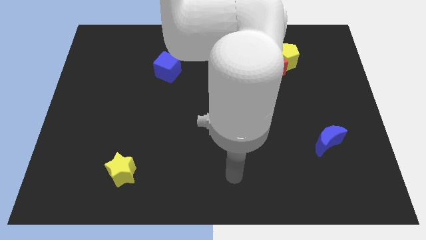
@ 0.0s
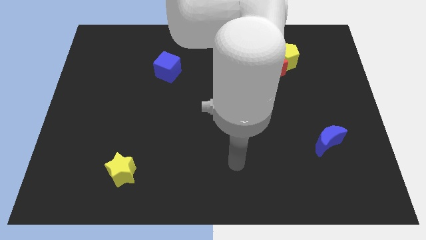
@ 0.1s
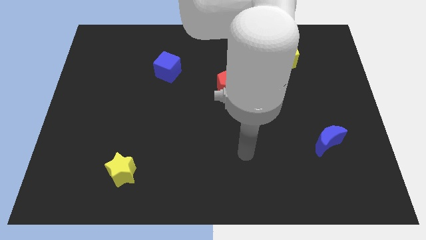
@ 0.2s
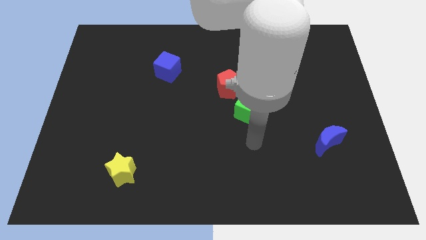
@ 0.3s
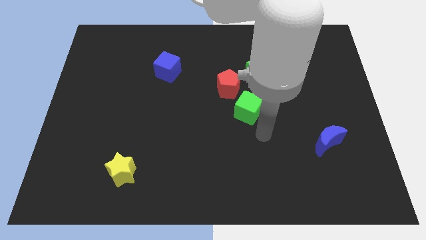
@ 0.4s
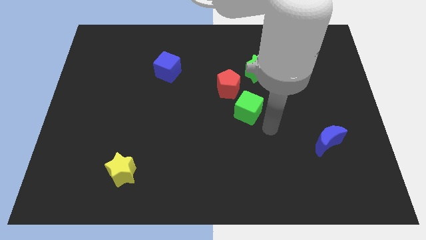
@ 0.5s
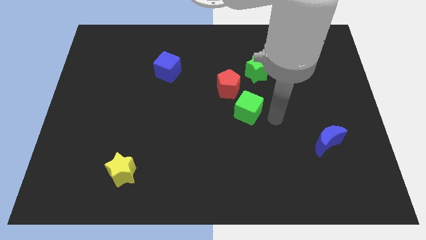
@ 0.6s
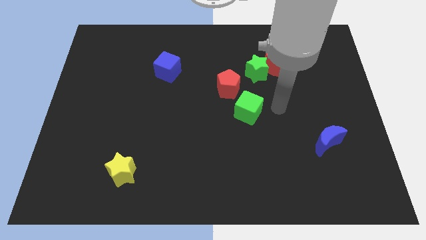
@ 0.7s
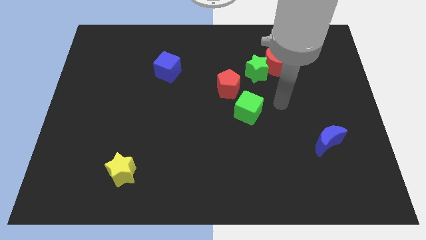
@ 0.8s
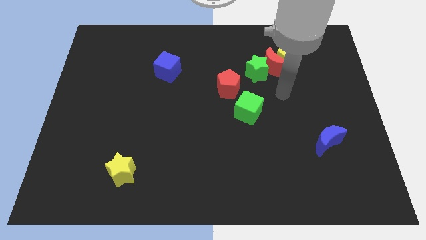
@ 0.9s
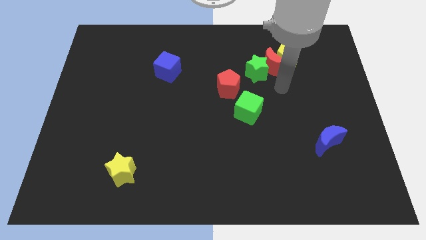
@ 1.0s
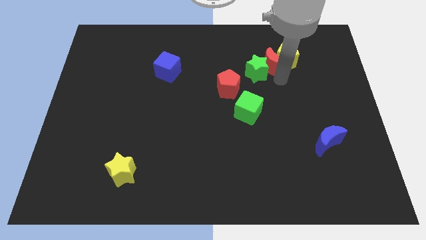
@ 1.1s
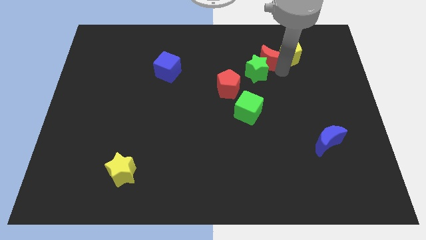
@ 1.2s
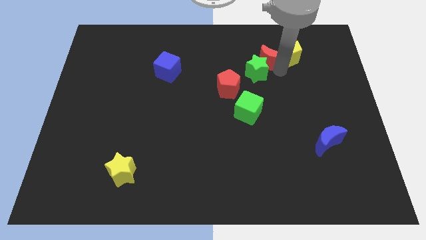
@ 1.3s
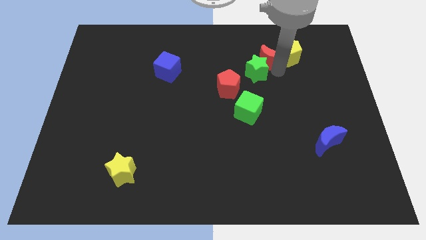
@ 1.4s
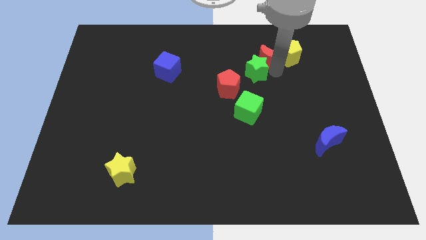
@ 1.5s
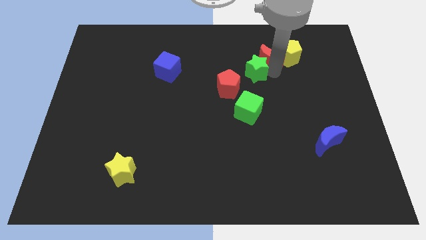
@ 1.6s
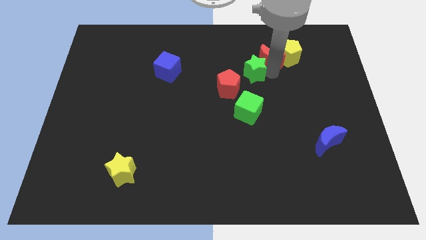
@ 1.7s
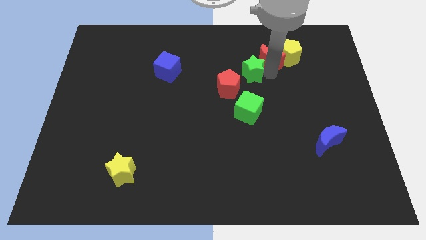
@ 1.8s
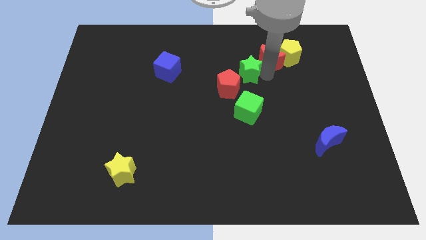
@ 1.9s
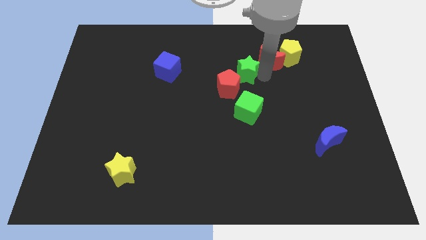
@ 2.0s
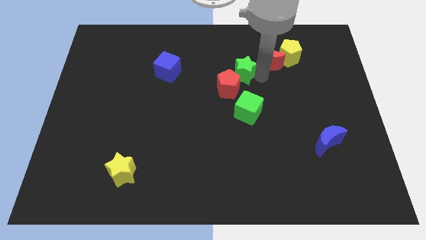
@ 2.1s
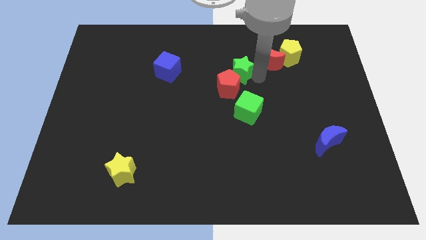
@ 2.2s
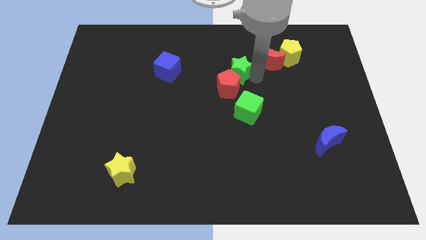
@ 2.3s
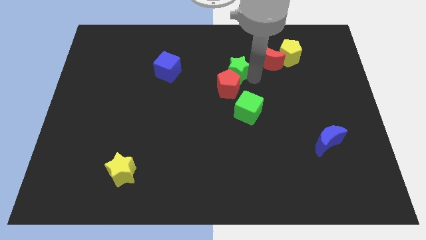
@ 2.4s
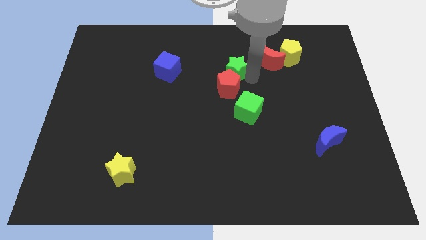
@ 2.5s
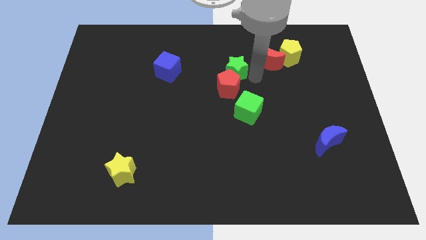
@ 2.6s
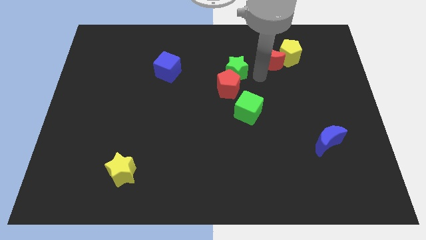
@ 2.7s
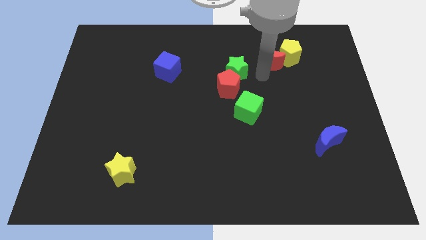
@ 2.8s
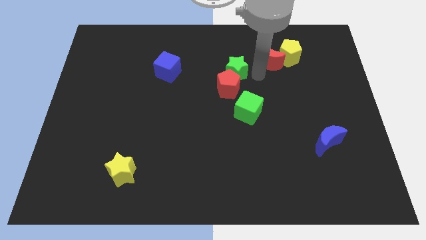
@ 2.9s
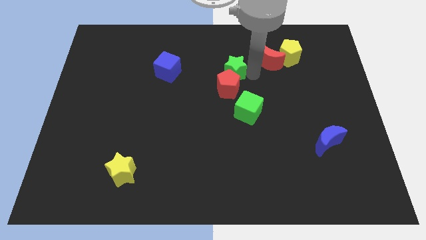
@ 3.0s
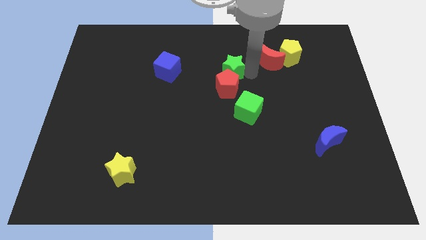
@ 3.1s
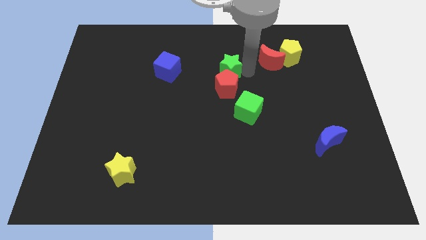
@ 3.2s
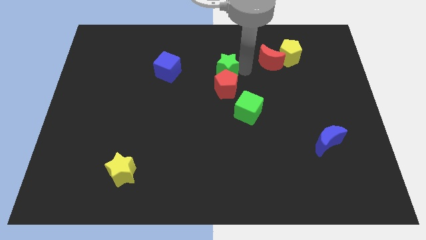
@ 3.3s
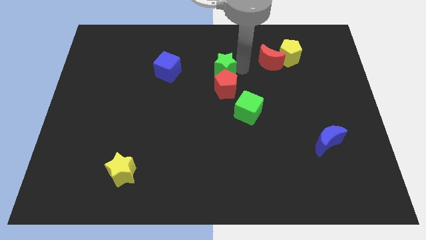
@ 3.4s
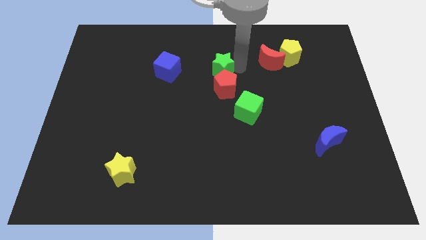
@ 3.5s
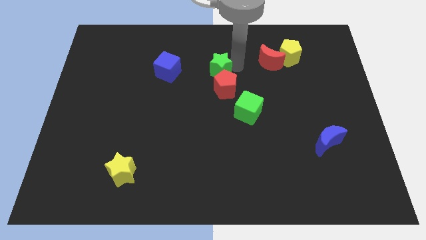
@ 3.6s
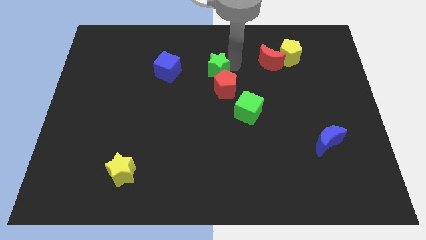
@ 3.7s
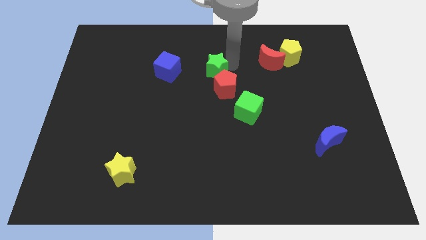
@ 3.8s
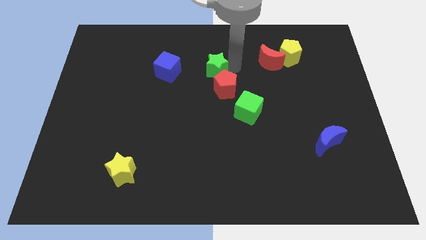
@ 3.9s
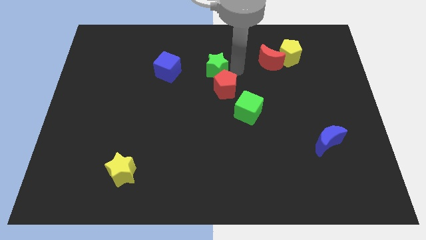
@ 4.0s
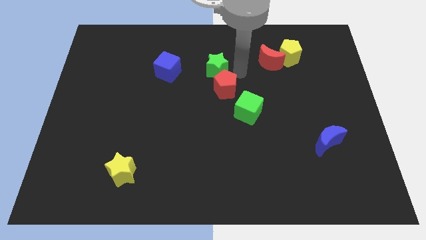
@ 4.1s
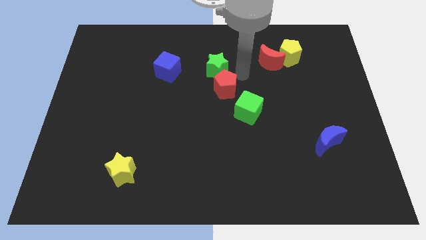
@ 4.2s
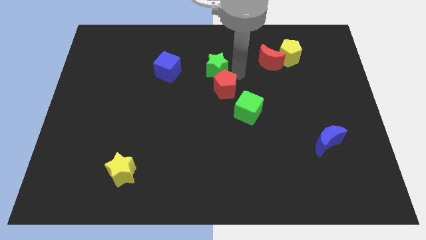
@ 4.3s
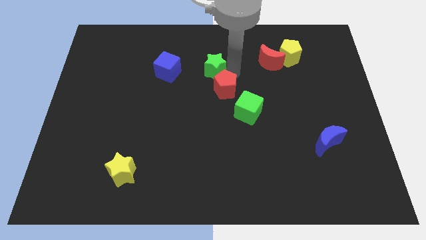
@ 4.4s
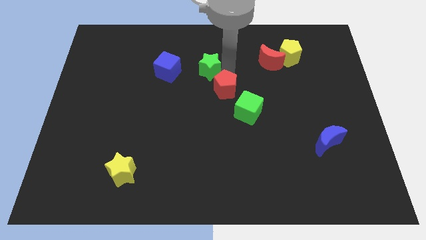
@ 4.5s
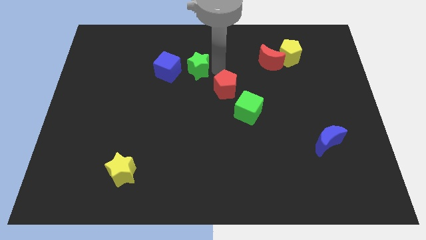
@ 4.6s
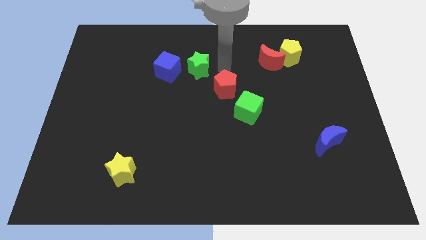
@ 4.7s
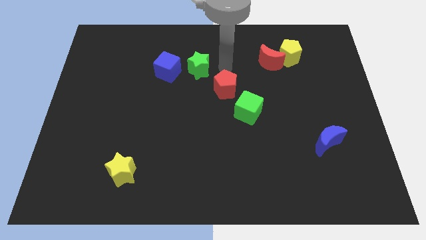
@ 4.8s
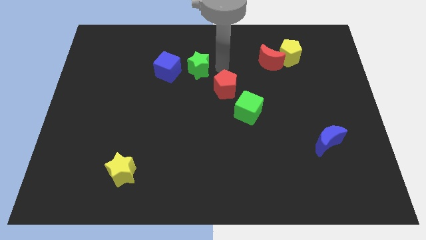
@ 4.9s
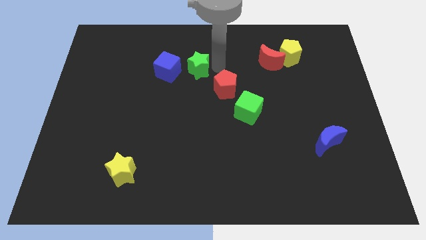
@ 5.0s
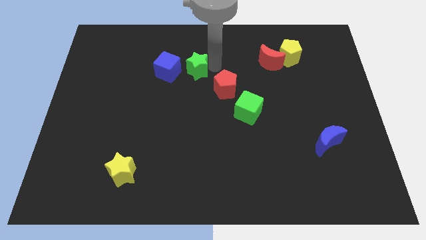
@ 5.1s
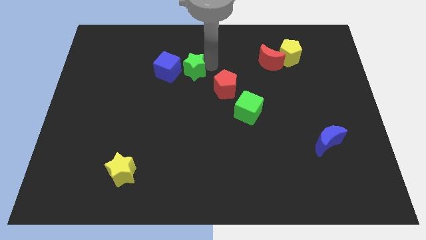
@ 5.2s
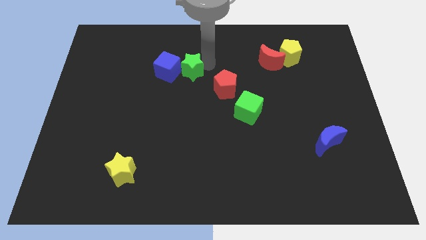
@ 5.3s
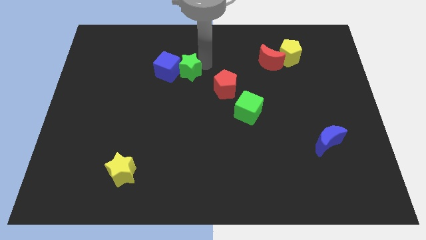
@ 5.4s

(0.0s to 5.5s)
push the green star next to the blue cube

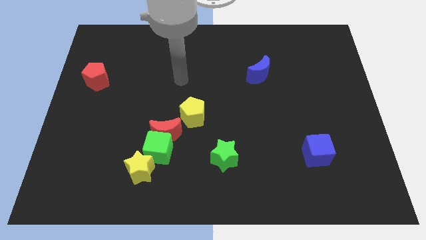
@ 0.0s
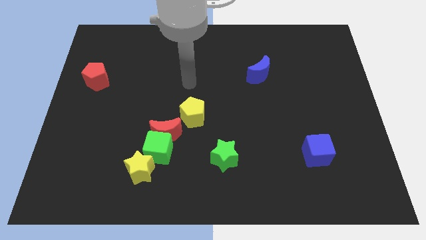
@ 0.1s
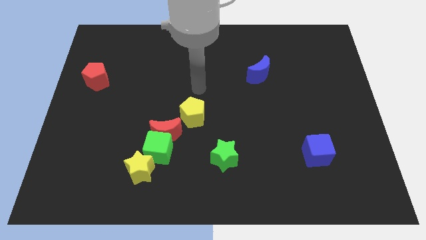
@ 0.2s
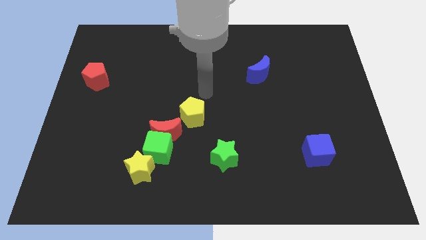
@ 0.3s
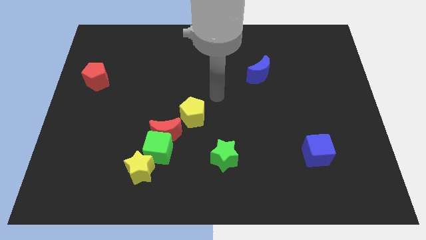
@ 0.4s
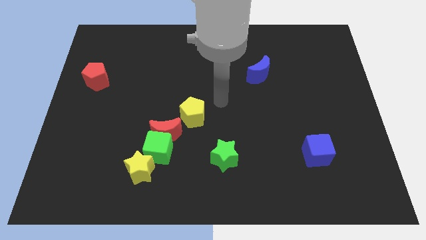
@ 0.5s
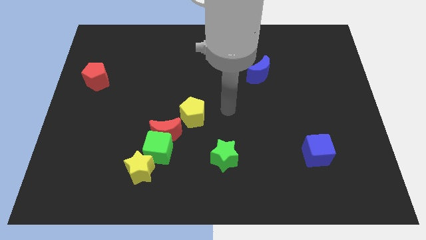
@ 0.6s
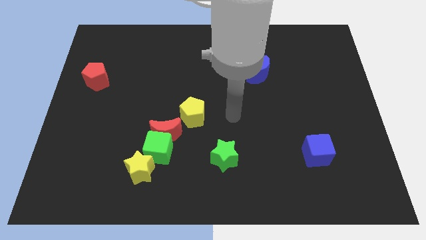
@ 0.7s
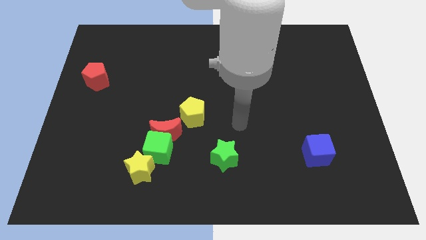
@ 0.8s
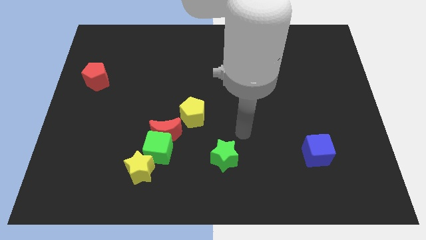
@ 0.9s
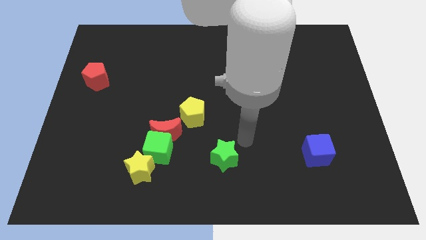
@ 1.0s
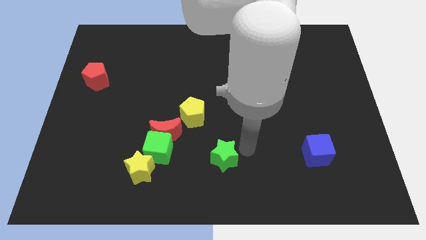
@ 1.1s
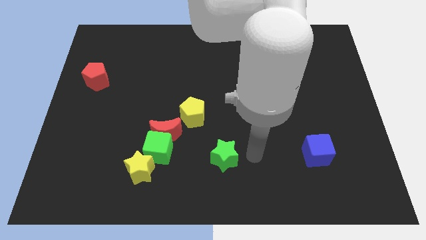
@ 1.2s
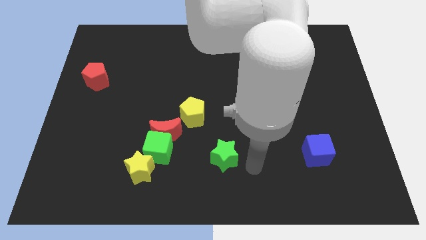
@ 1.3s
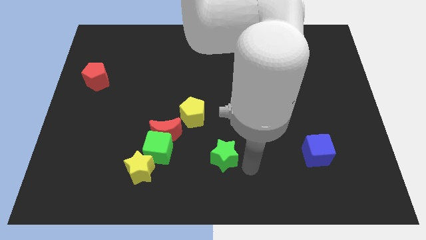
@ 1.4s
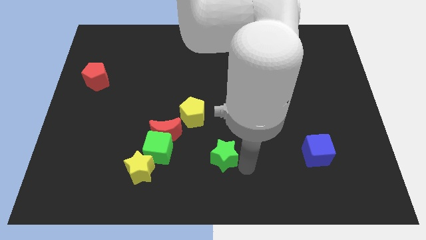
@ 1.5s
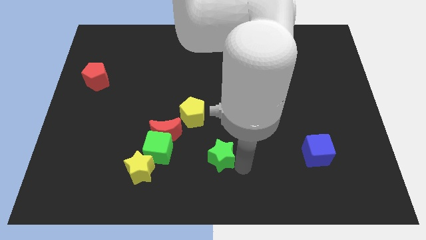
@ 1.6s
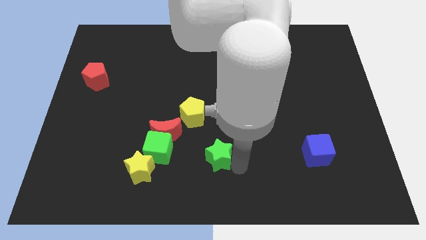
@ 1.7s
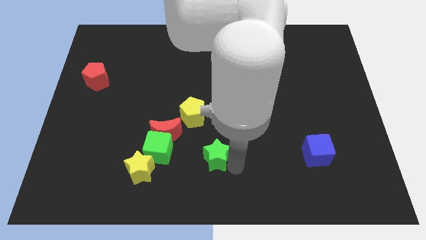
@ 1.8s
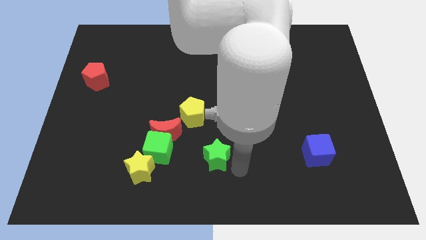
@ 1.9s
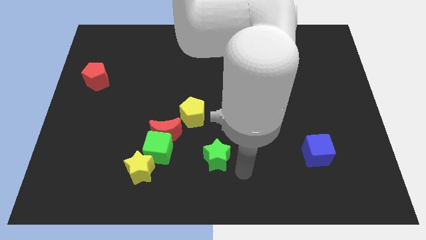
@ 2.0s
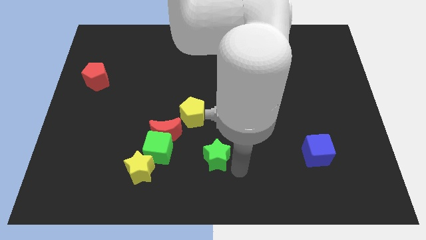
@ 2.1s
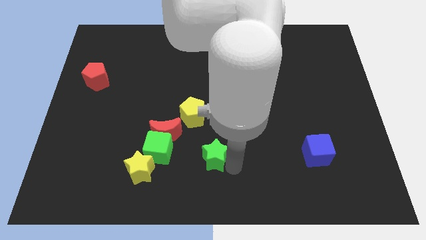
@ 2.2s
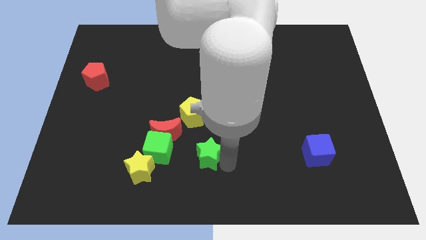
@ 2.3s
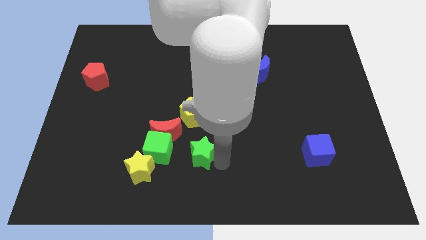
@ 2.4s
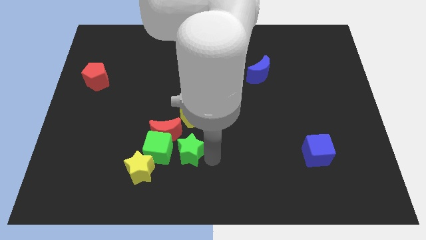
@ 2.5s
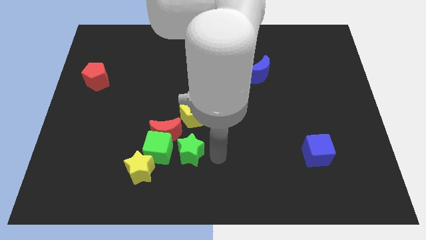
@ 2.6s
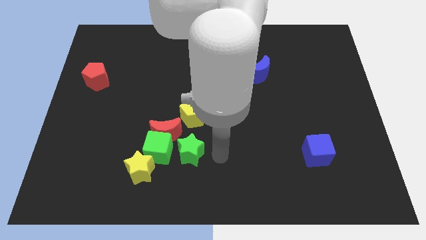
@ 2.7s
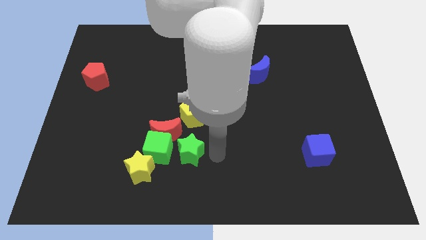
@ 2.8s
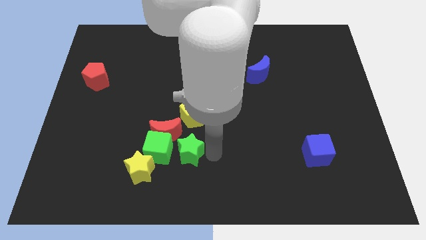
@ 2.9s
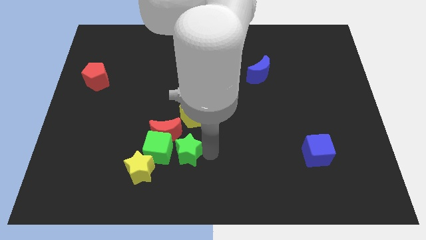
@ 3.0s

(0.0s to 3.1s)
push the green star to the green cube
